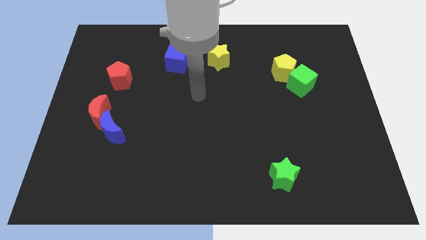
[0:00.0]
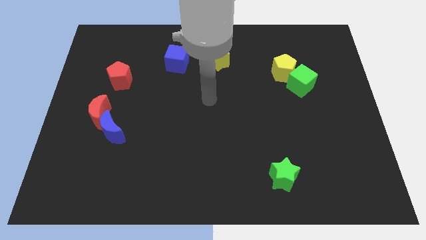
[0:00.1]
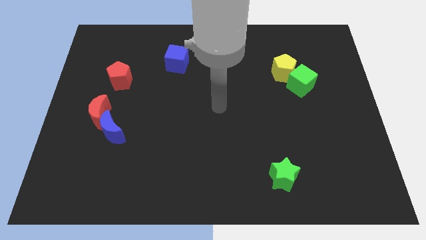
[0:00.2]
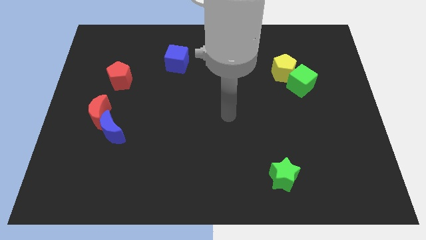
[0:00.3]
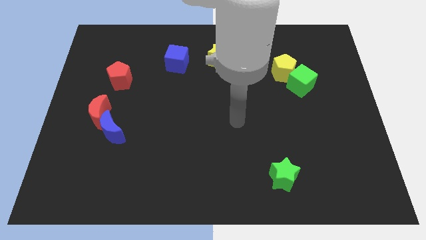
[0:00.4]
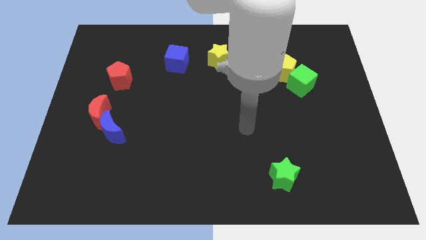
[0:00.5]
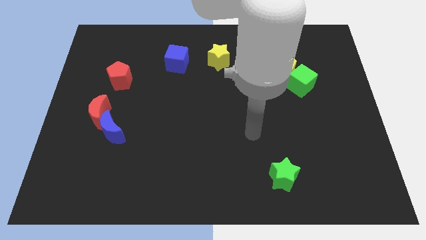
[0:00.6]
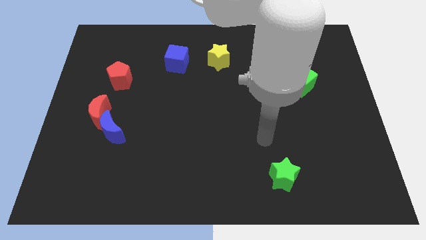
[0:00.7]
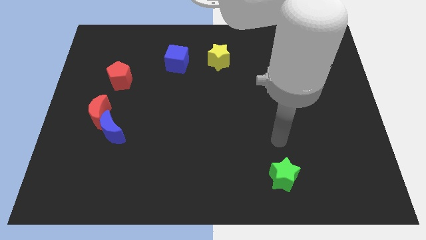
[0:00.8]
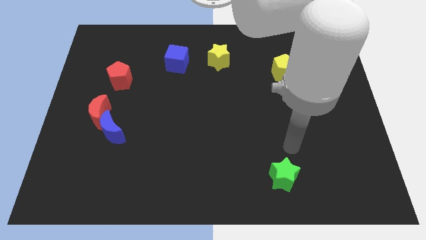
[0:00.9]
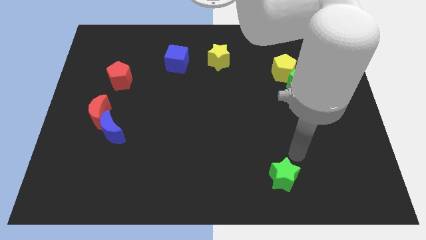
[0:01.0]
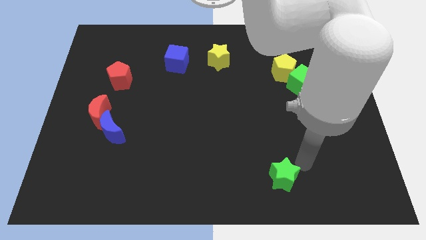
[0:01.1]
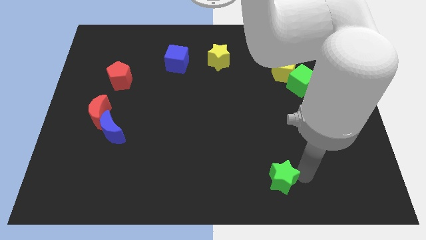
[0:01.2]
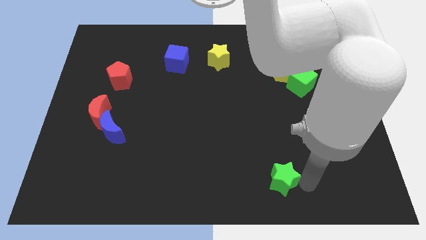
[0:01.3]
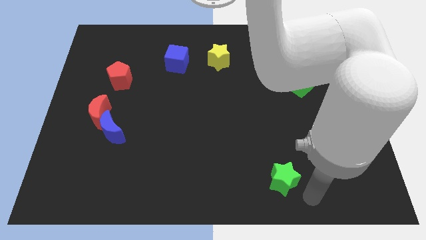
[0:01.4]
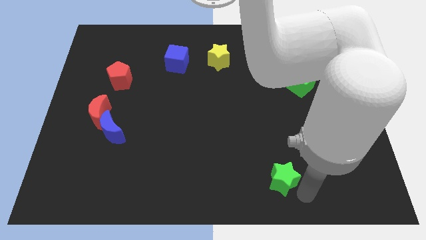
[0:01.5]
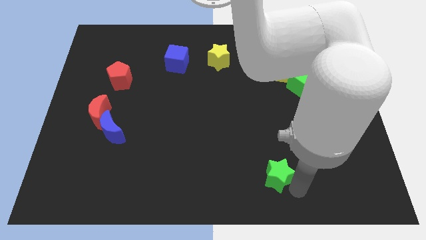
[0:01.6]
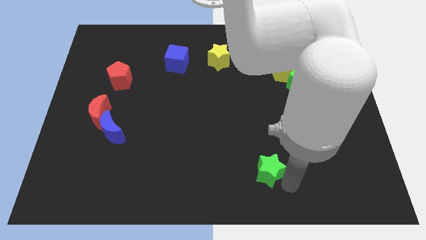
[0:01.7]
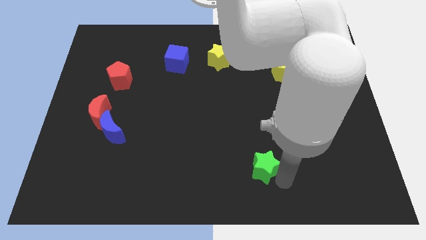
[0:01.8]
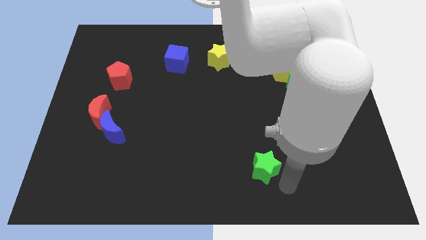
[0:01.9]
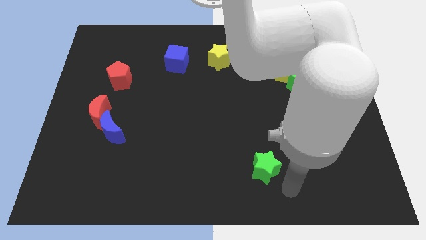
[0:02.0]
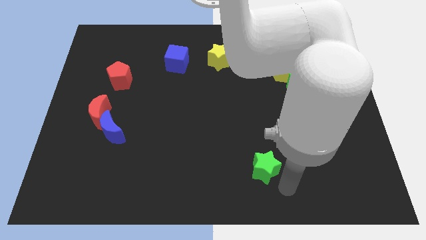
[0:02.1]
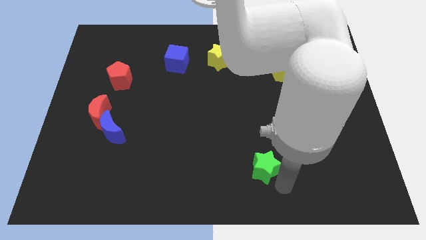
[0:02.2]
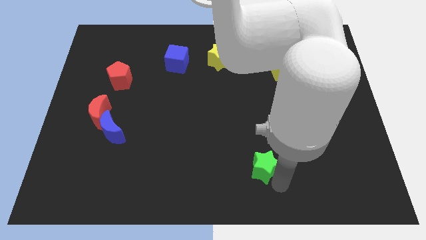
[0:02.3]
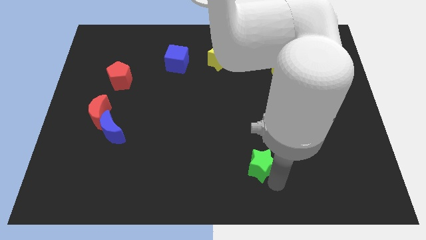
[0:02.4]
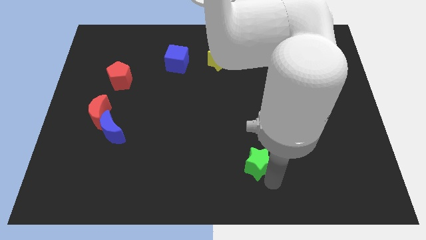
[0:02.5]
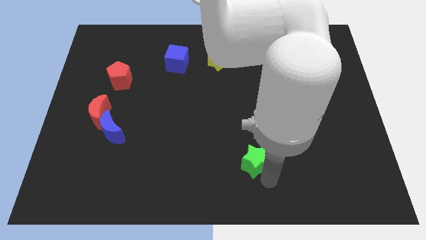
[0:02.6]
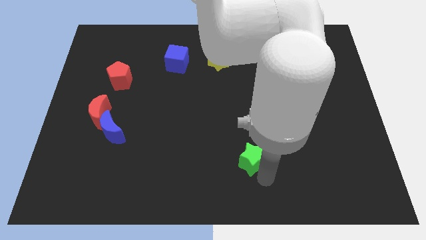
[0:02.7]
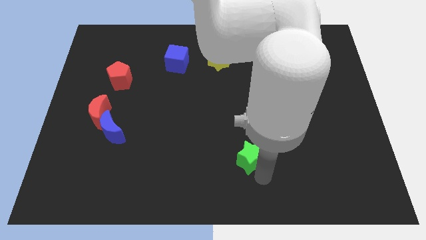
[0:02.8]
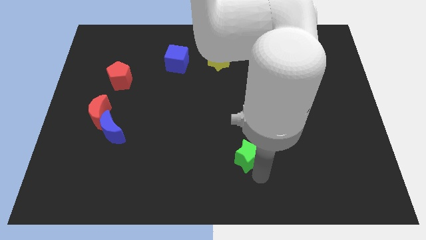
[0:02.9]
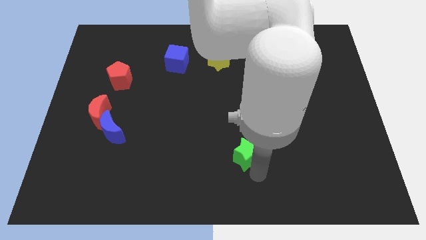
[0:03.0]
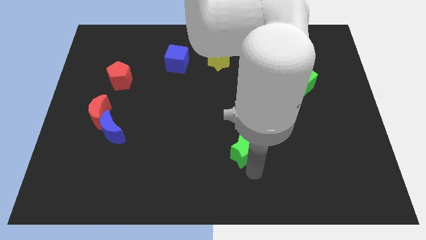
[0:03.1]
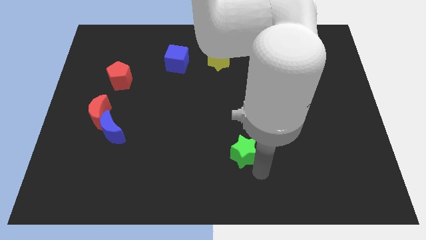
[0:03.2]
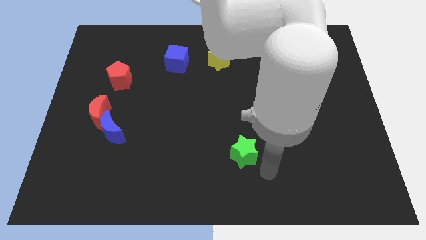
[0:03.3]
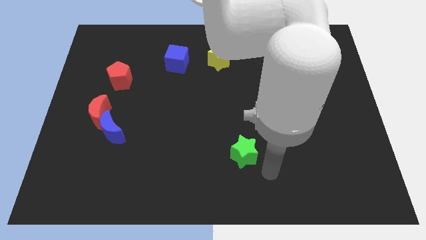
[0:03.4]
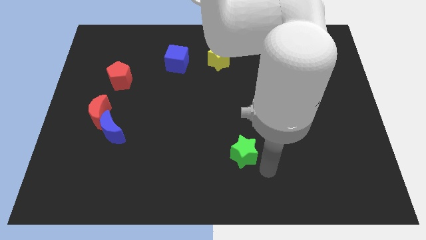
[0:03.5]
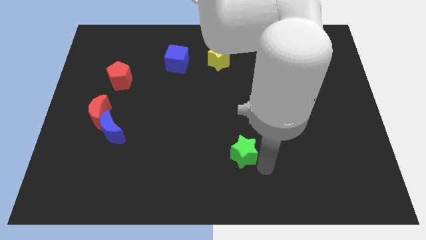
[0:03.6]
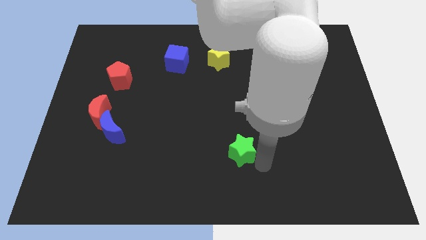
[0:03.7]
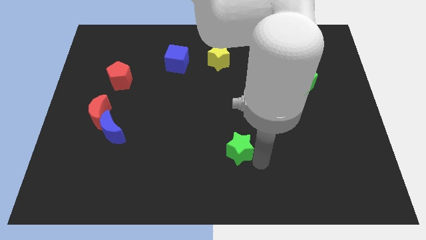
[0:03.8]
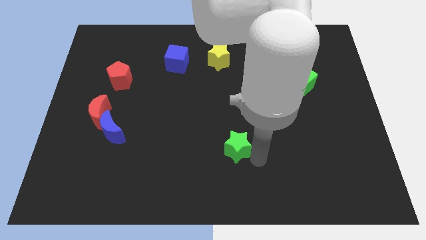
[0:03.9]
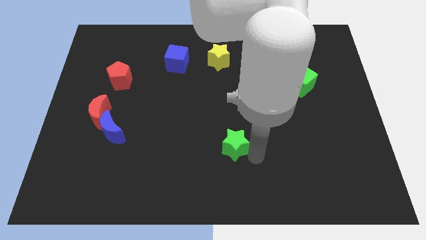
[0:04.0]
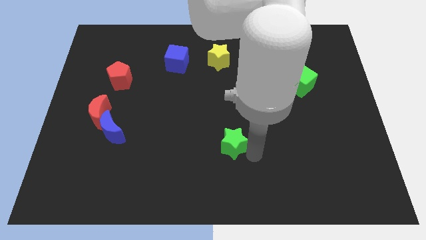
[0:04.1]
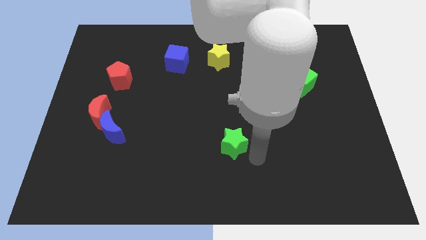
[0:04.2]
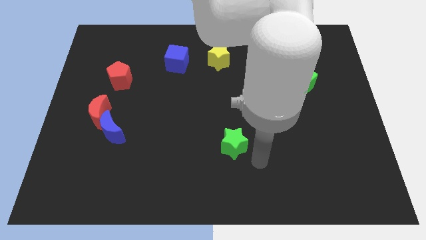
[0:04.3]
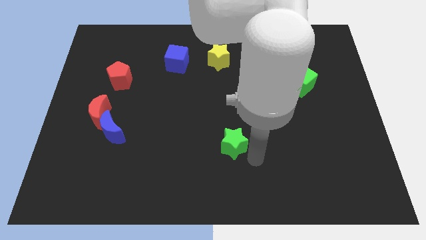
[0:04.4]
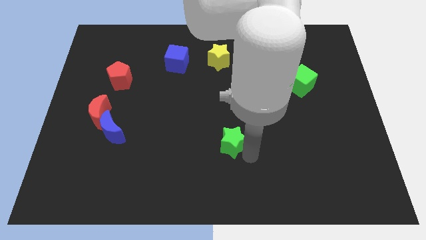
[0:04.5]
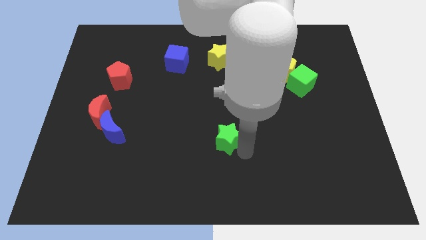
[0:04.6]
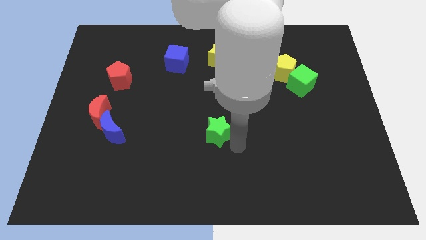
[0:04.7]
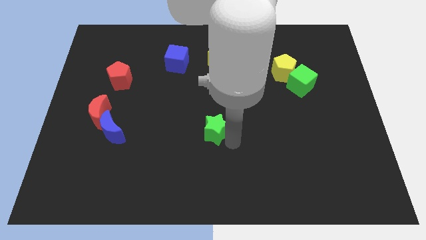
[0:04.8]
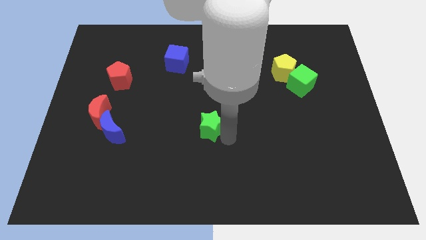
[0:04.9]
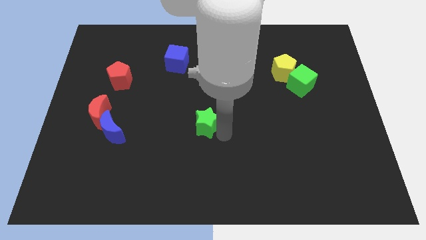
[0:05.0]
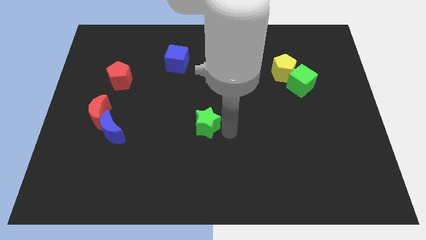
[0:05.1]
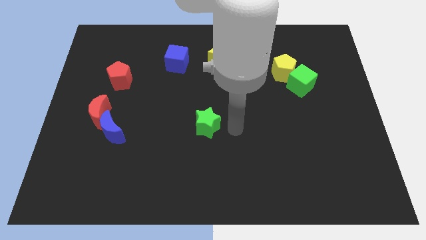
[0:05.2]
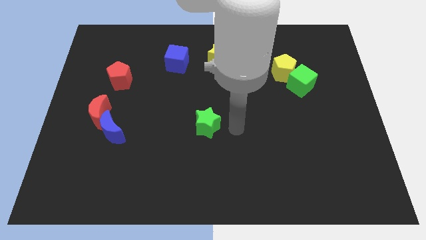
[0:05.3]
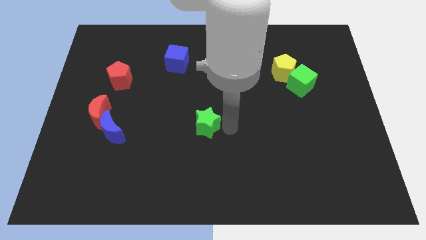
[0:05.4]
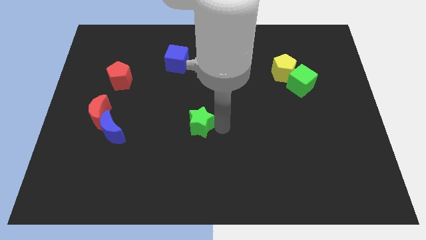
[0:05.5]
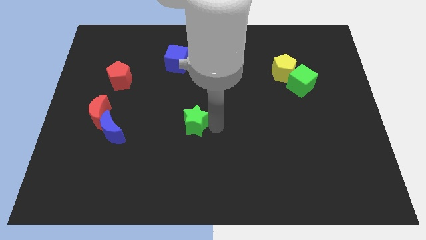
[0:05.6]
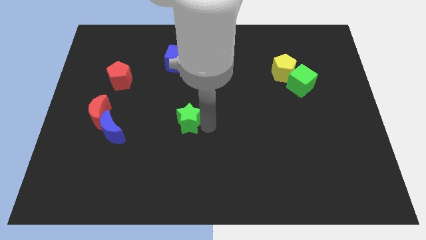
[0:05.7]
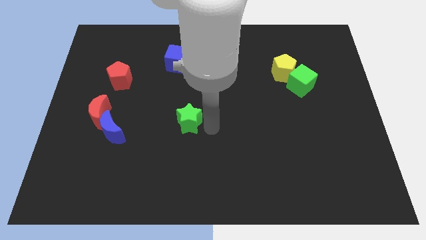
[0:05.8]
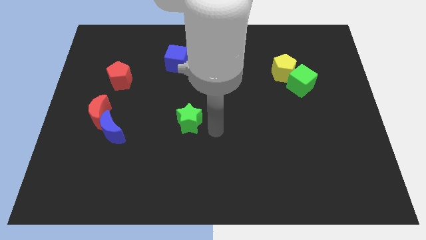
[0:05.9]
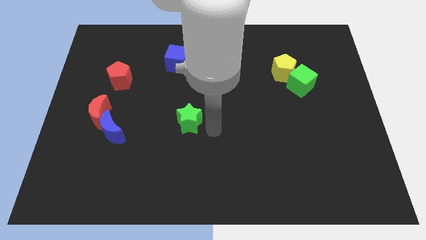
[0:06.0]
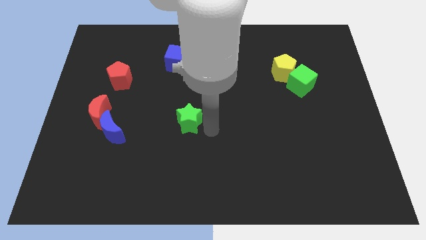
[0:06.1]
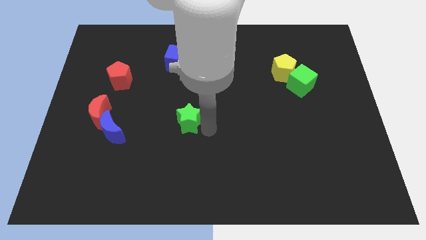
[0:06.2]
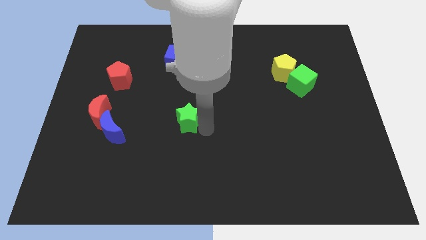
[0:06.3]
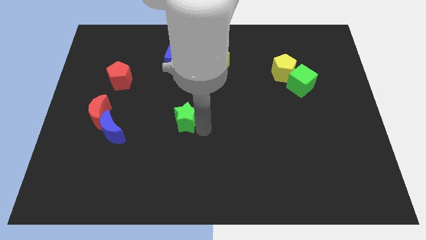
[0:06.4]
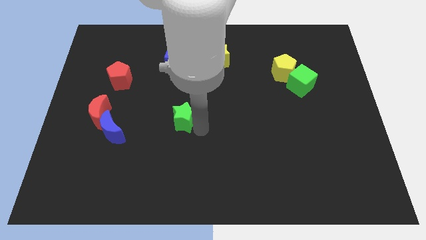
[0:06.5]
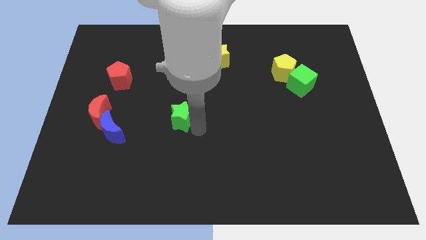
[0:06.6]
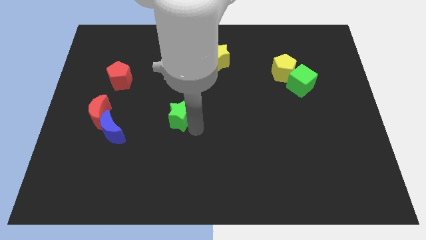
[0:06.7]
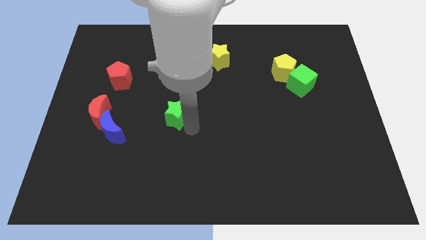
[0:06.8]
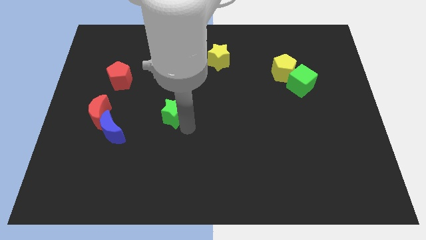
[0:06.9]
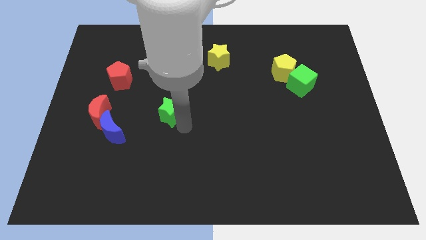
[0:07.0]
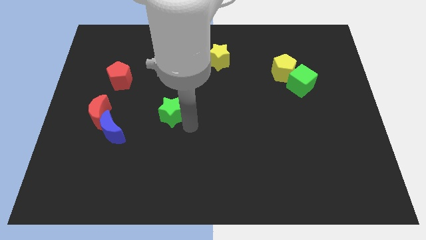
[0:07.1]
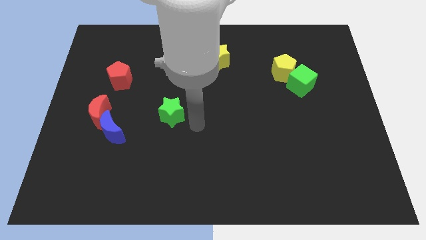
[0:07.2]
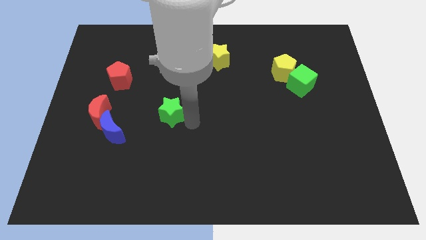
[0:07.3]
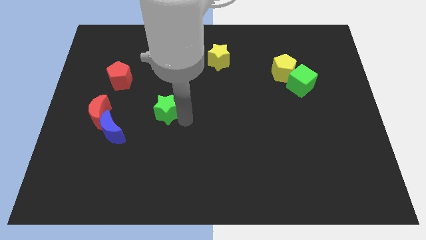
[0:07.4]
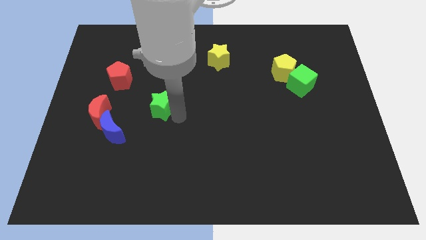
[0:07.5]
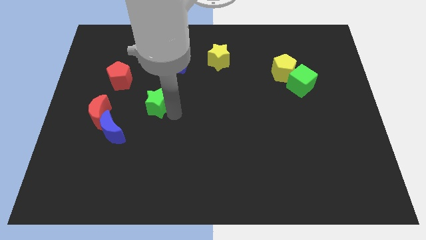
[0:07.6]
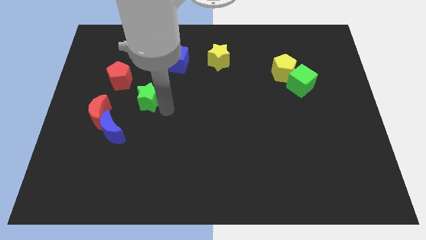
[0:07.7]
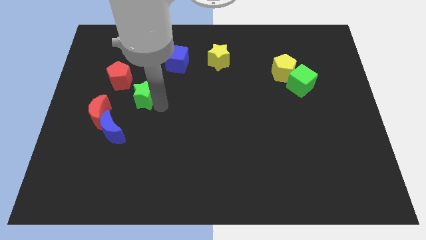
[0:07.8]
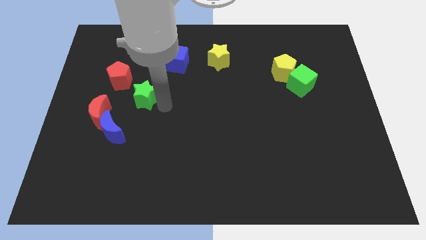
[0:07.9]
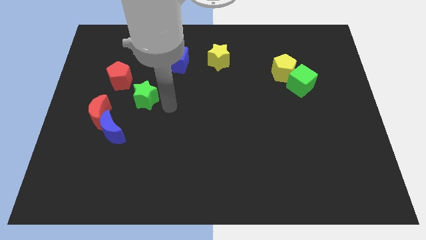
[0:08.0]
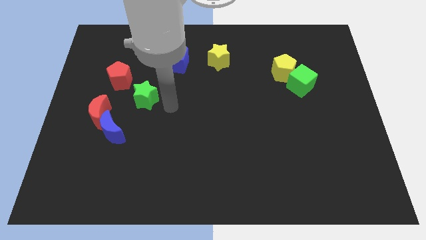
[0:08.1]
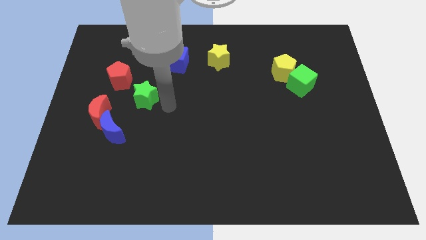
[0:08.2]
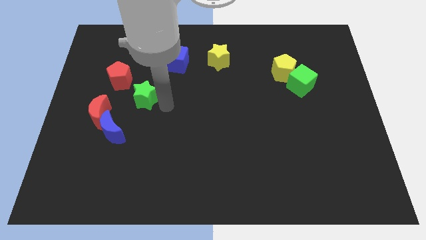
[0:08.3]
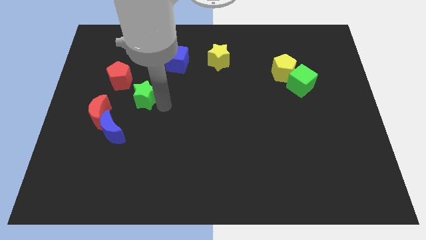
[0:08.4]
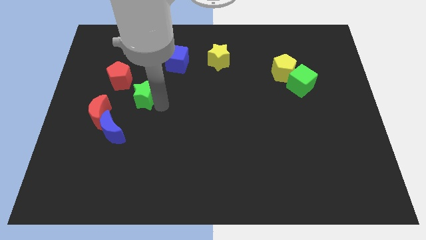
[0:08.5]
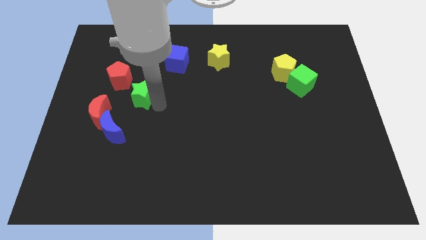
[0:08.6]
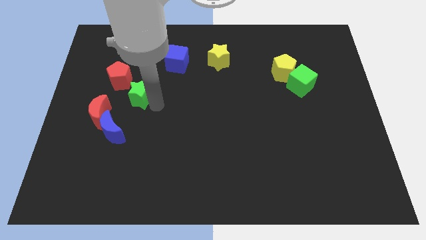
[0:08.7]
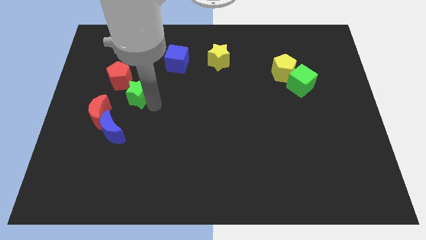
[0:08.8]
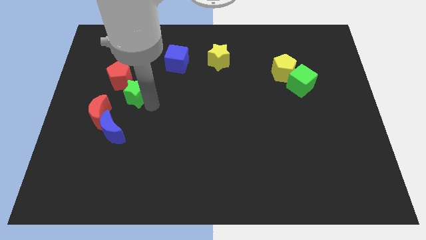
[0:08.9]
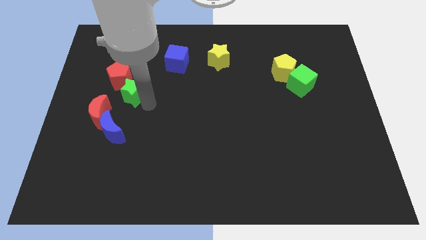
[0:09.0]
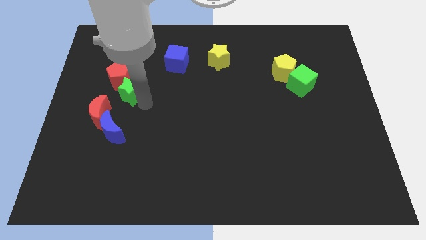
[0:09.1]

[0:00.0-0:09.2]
put the green star close to the red pentagon
